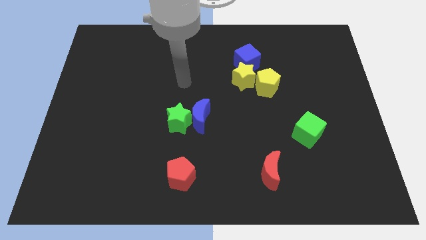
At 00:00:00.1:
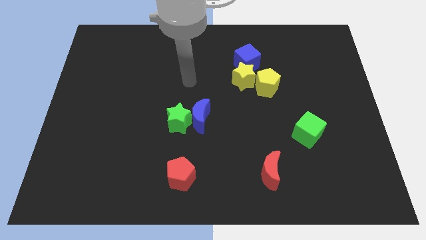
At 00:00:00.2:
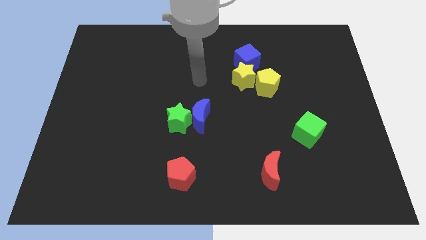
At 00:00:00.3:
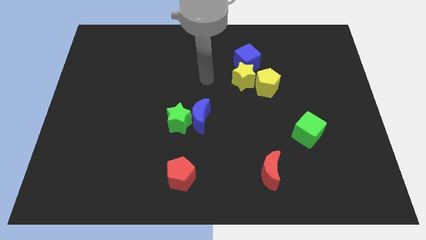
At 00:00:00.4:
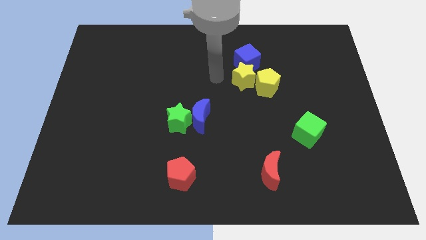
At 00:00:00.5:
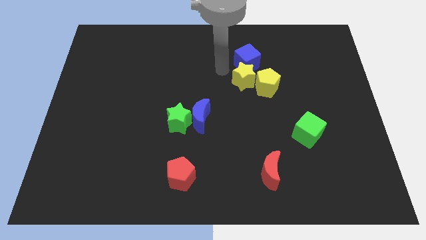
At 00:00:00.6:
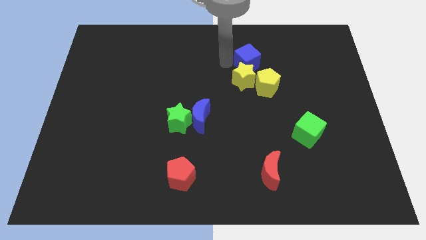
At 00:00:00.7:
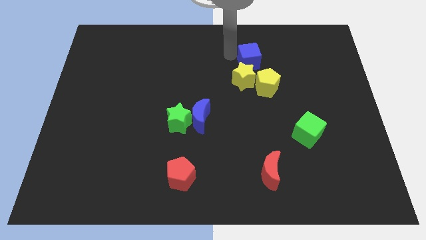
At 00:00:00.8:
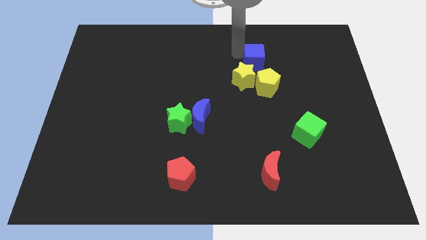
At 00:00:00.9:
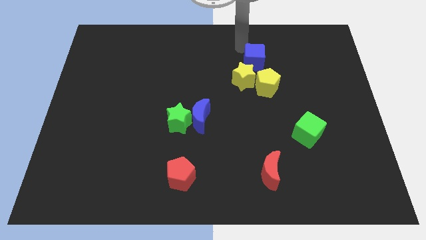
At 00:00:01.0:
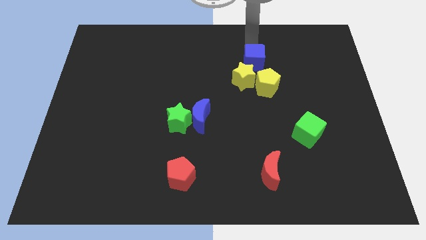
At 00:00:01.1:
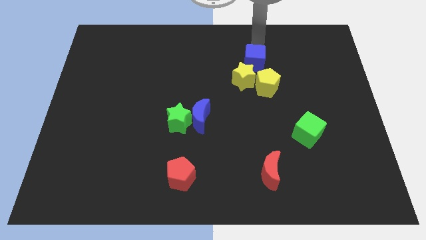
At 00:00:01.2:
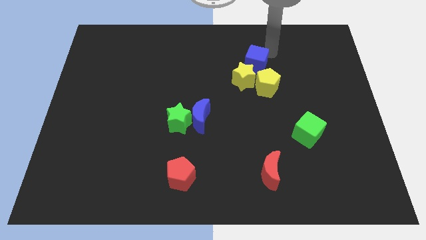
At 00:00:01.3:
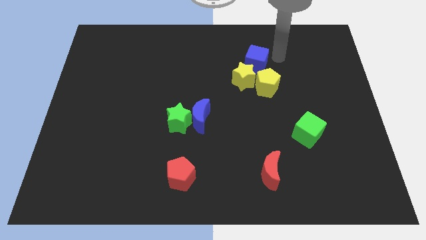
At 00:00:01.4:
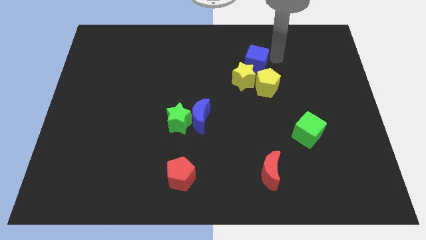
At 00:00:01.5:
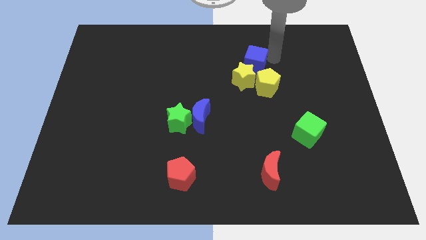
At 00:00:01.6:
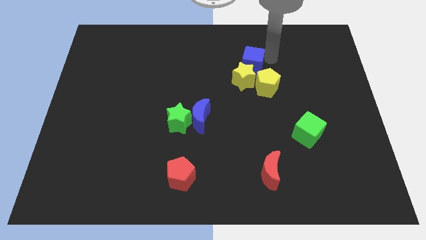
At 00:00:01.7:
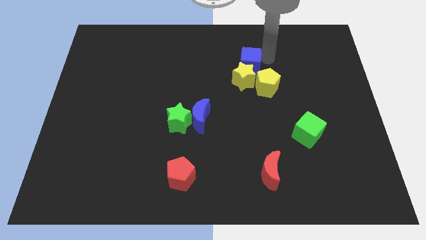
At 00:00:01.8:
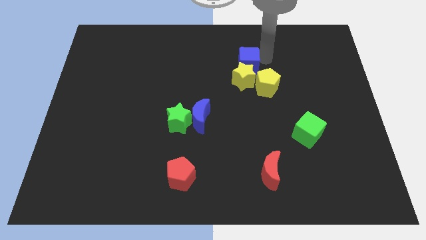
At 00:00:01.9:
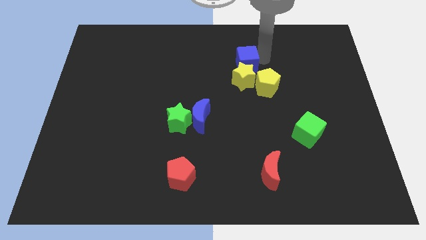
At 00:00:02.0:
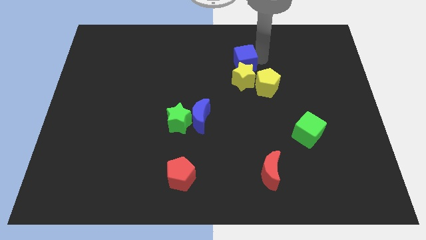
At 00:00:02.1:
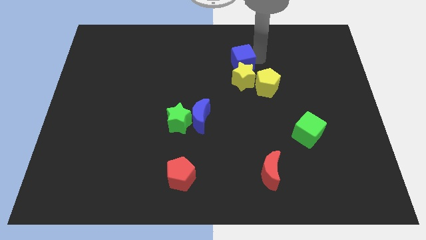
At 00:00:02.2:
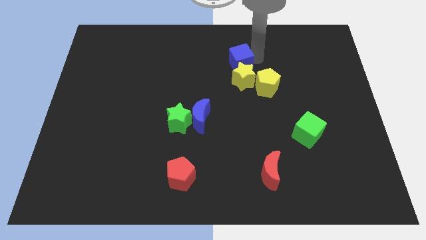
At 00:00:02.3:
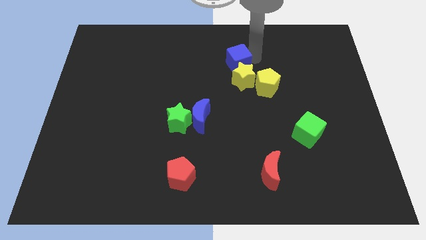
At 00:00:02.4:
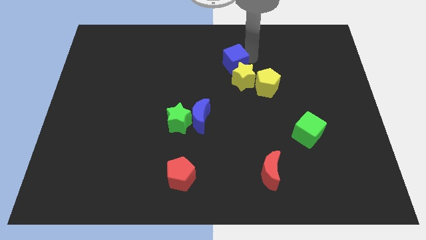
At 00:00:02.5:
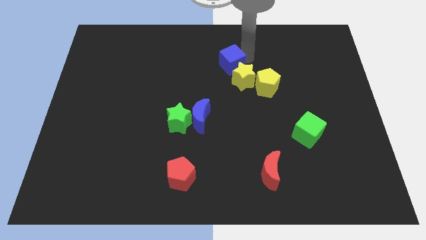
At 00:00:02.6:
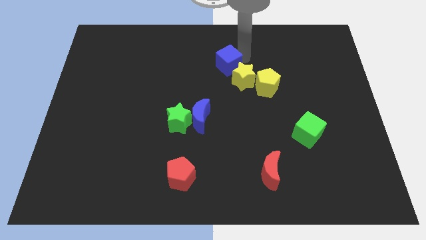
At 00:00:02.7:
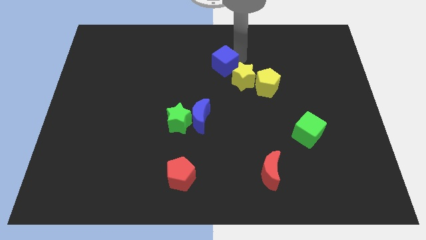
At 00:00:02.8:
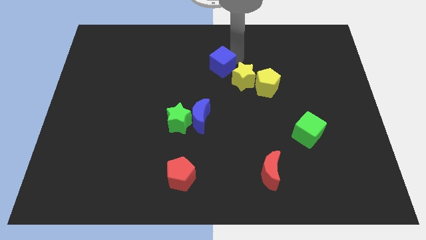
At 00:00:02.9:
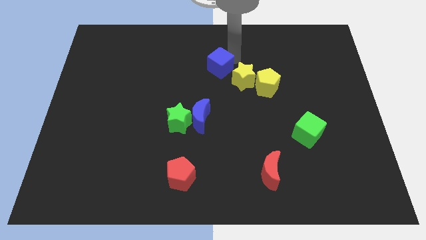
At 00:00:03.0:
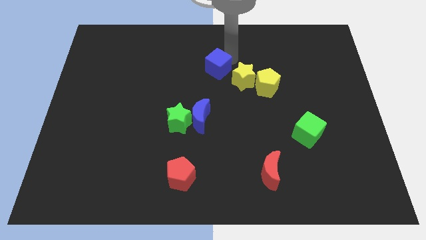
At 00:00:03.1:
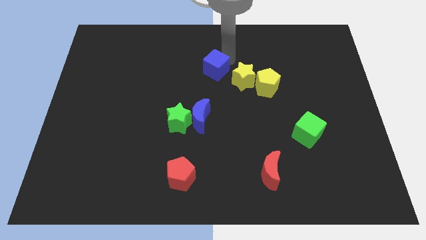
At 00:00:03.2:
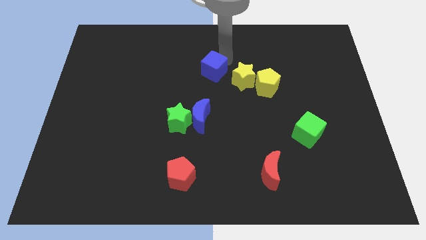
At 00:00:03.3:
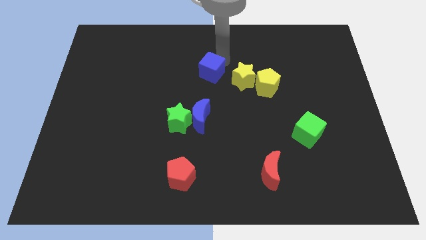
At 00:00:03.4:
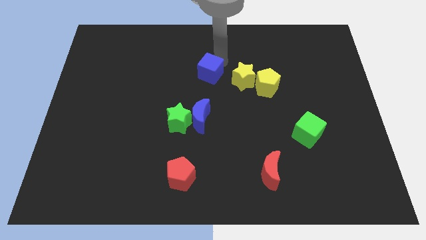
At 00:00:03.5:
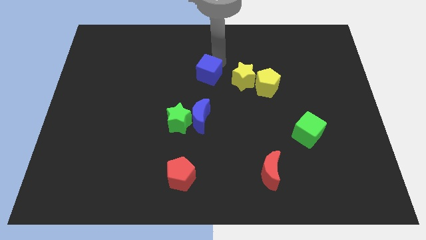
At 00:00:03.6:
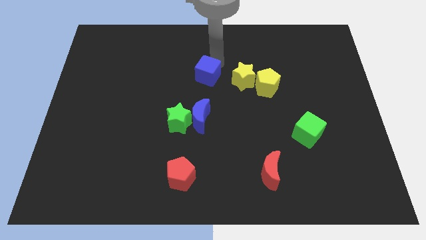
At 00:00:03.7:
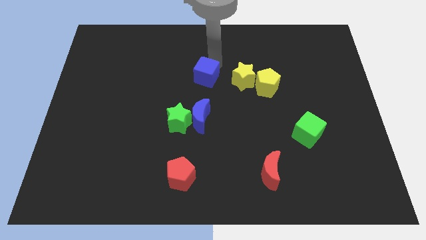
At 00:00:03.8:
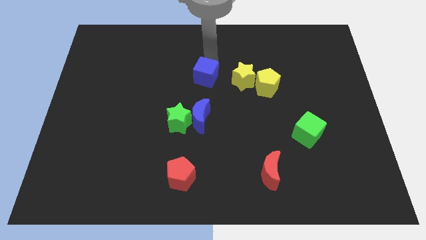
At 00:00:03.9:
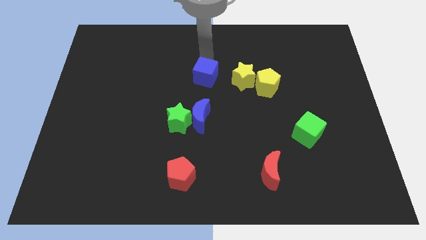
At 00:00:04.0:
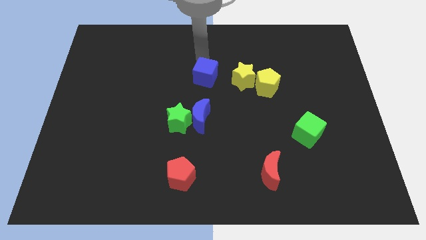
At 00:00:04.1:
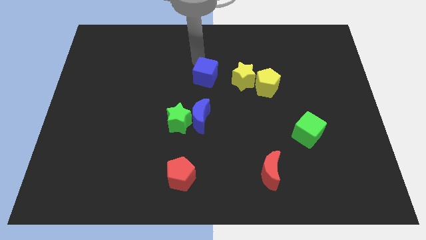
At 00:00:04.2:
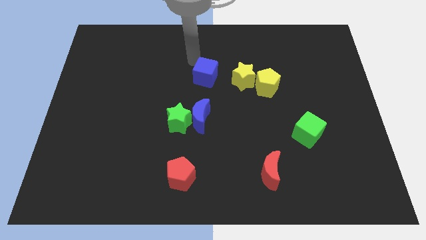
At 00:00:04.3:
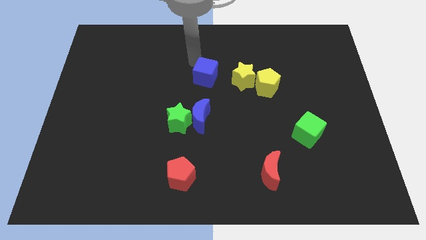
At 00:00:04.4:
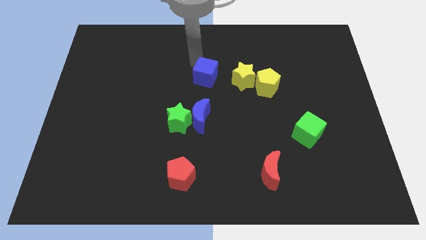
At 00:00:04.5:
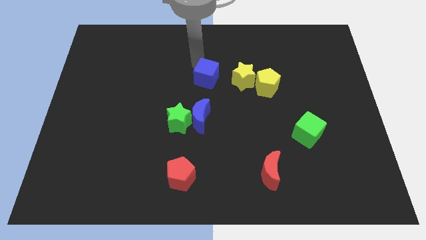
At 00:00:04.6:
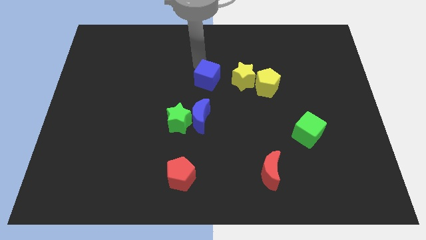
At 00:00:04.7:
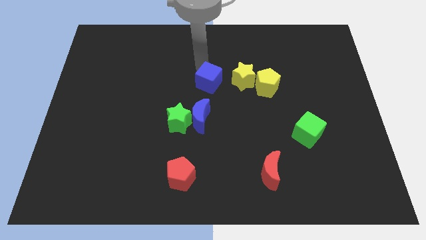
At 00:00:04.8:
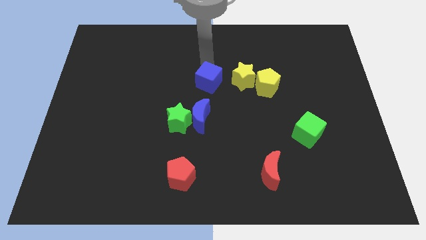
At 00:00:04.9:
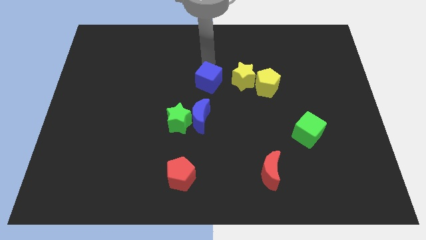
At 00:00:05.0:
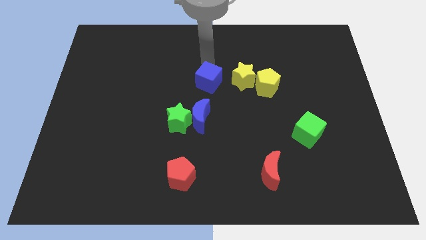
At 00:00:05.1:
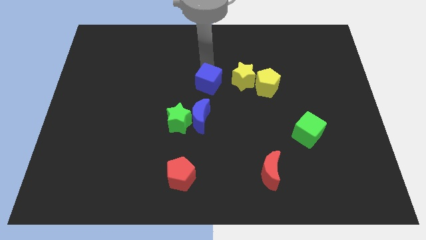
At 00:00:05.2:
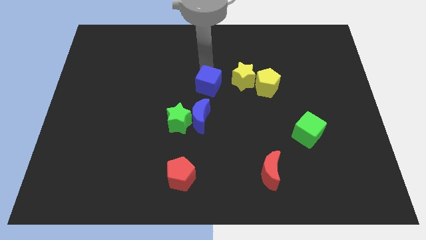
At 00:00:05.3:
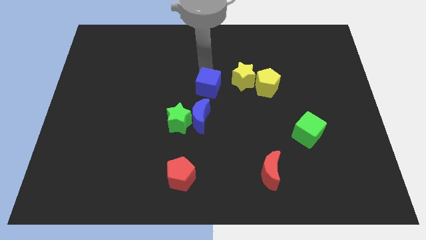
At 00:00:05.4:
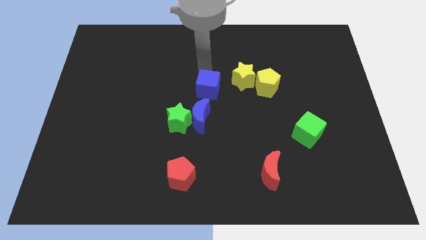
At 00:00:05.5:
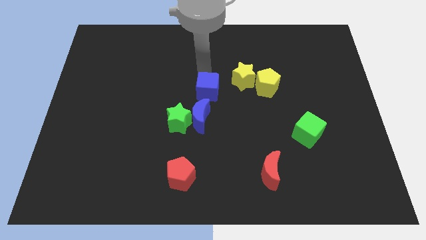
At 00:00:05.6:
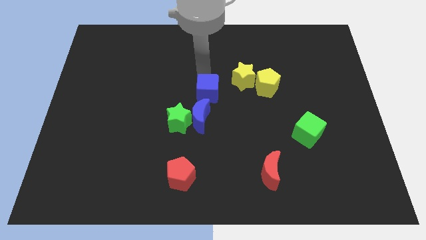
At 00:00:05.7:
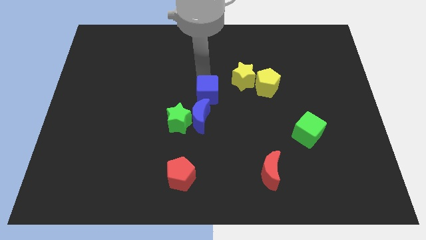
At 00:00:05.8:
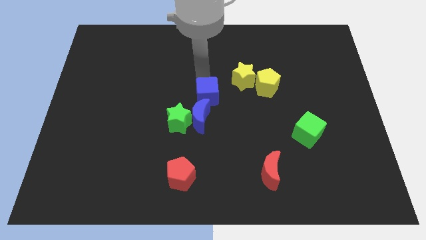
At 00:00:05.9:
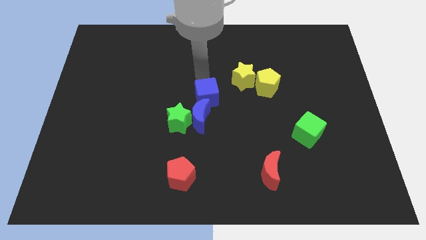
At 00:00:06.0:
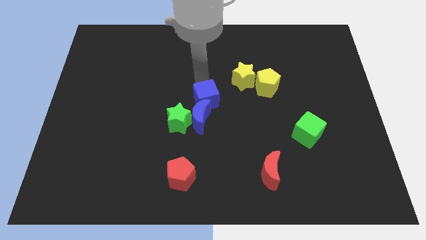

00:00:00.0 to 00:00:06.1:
slide the blue cube next to the blue moon

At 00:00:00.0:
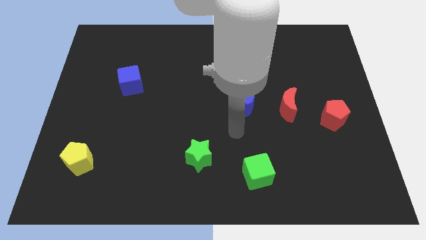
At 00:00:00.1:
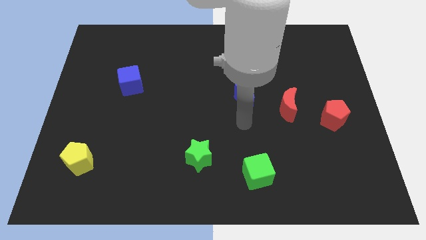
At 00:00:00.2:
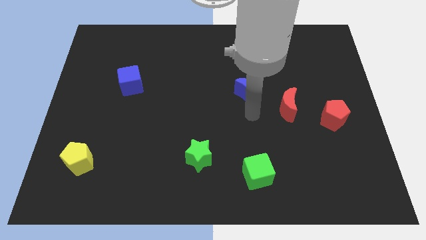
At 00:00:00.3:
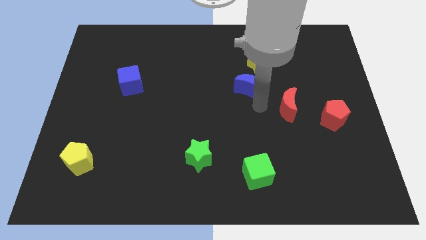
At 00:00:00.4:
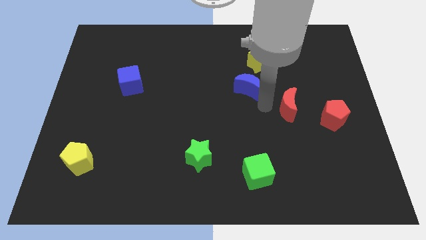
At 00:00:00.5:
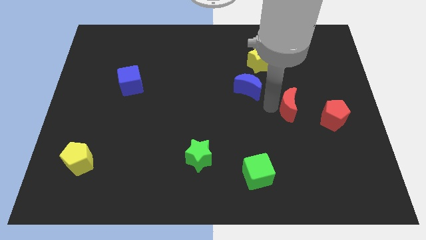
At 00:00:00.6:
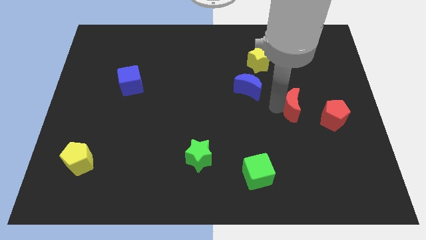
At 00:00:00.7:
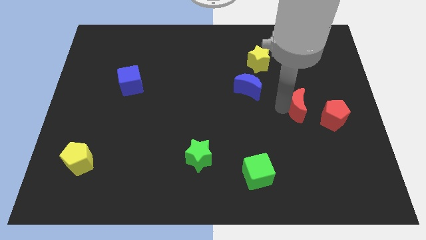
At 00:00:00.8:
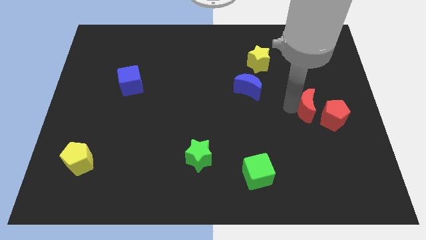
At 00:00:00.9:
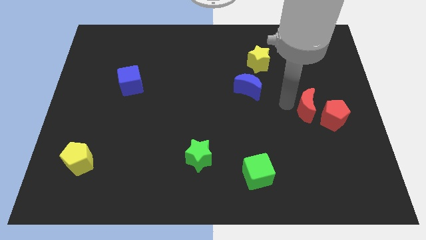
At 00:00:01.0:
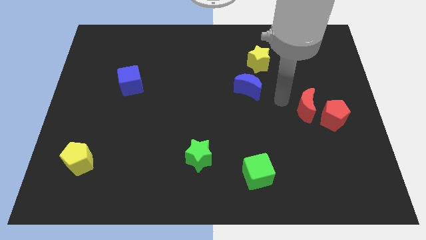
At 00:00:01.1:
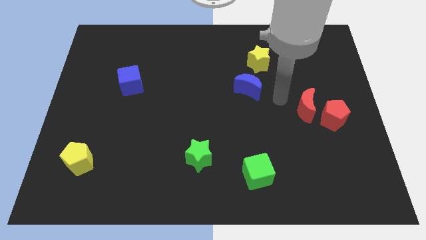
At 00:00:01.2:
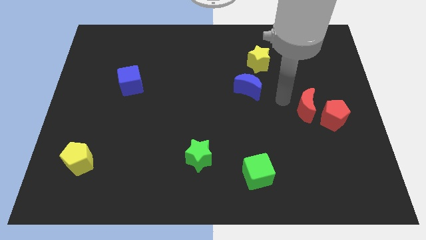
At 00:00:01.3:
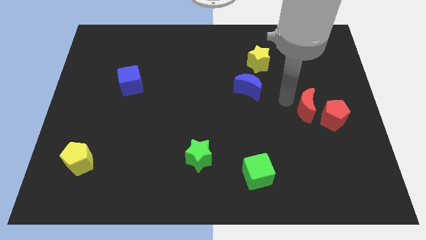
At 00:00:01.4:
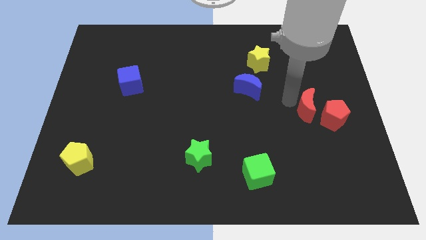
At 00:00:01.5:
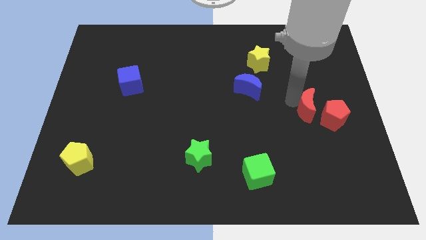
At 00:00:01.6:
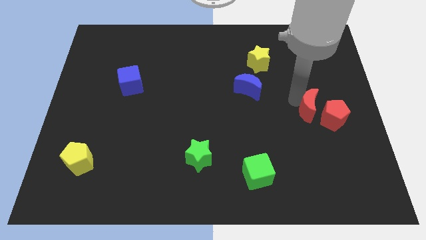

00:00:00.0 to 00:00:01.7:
move the red moon to the red pentagon
